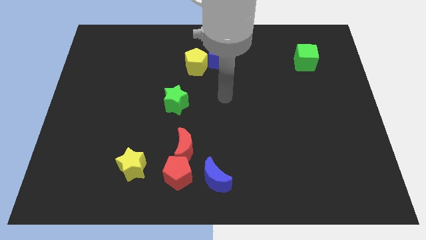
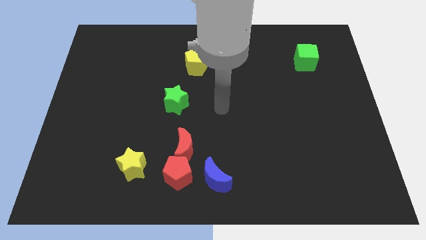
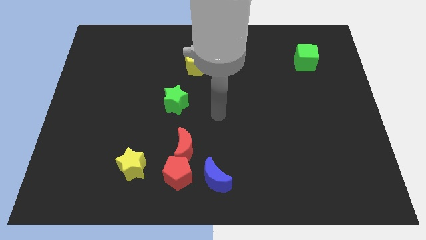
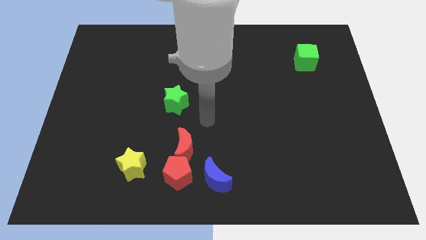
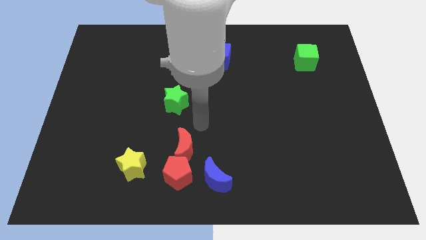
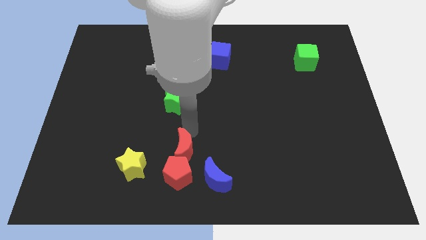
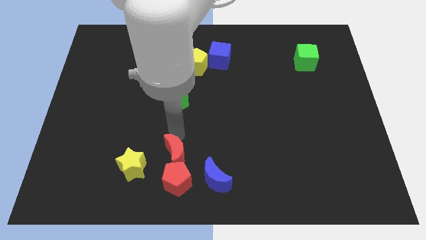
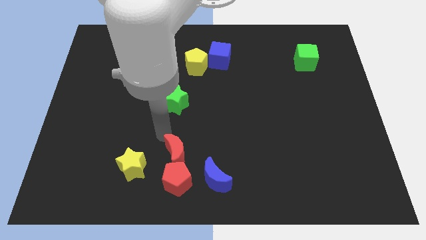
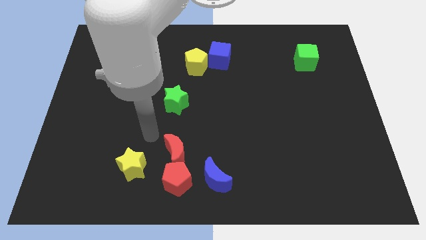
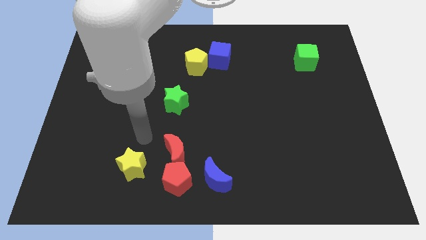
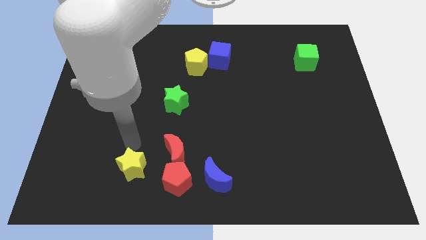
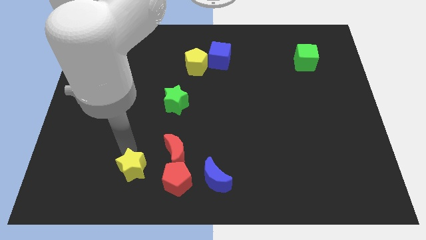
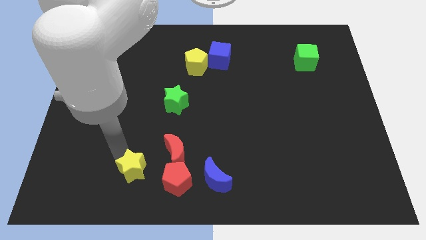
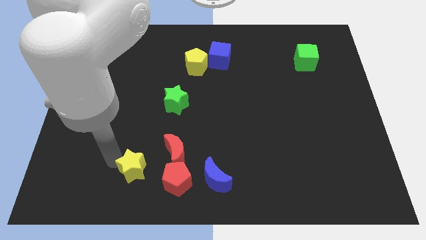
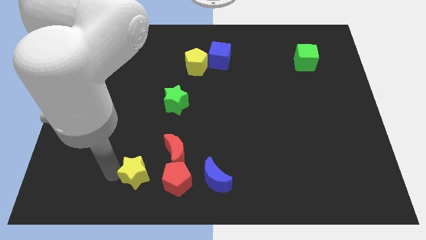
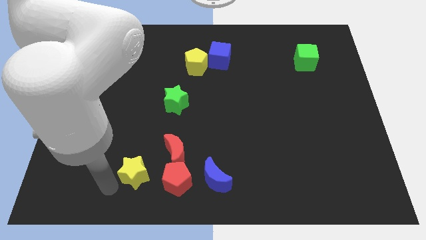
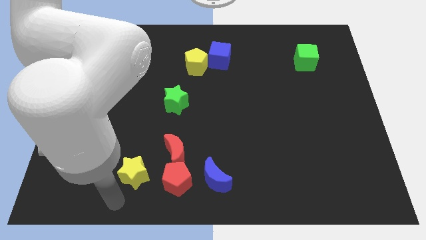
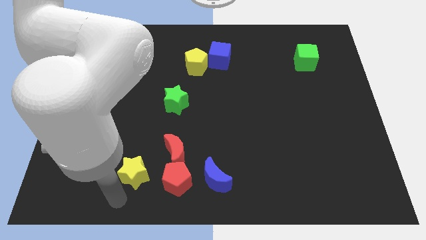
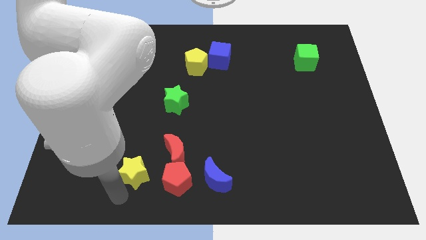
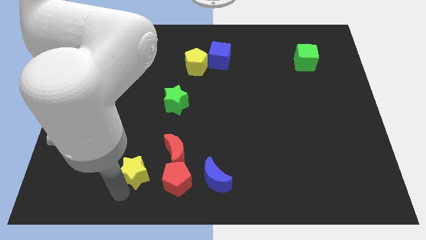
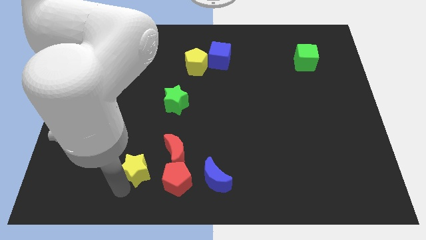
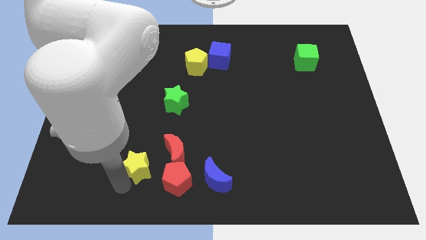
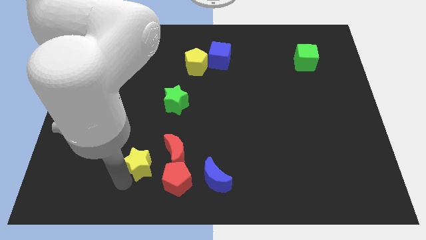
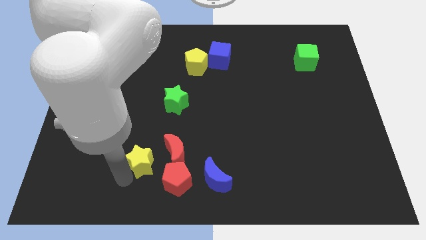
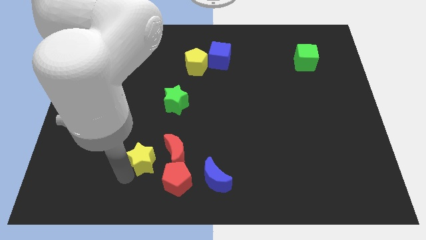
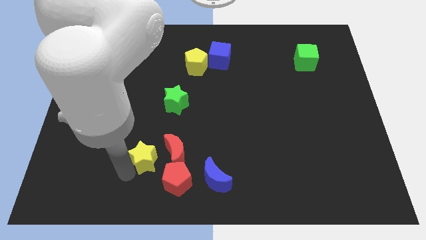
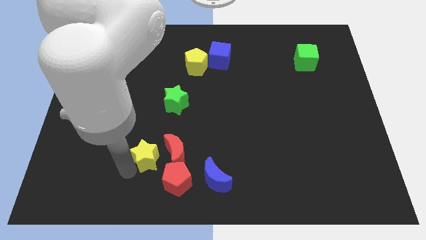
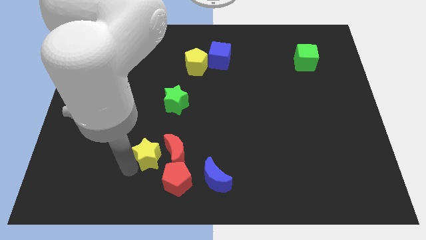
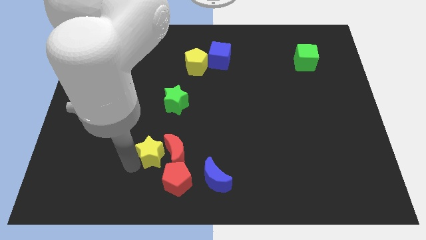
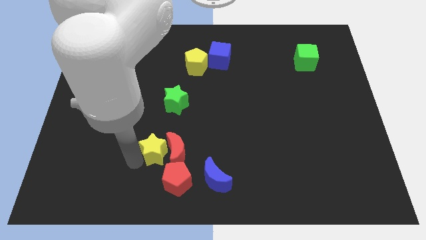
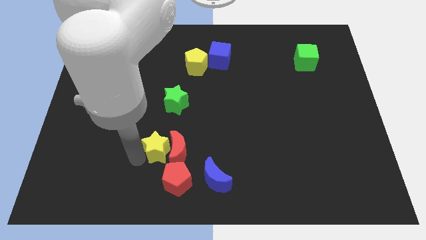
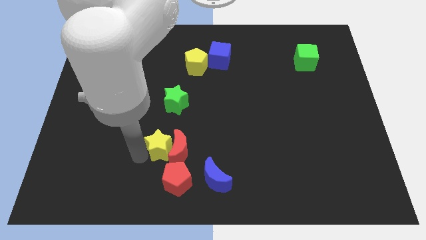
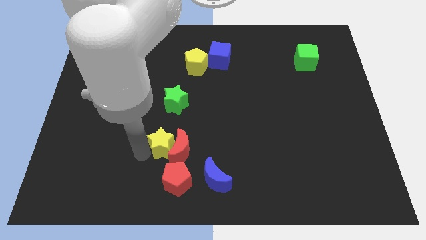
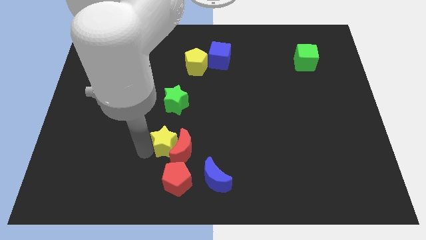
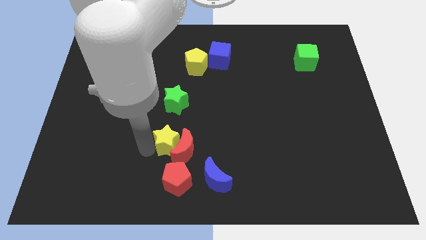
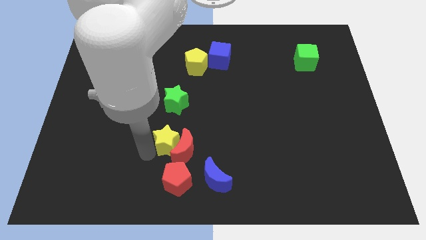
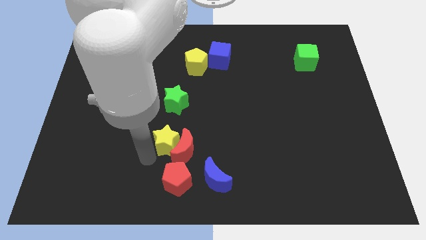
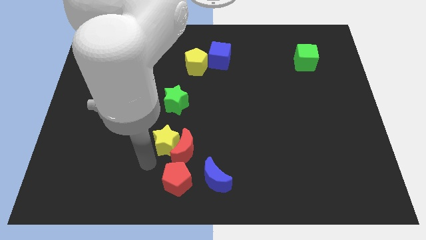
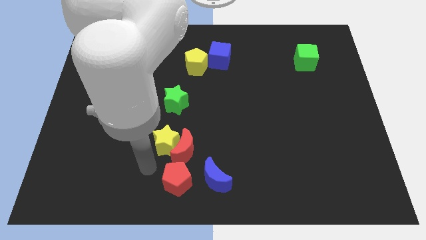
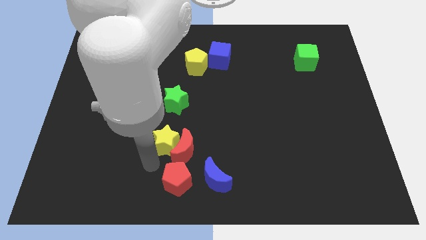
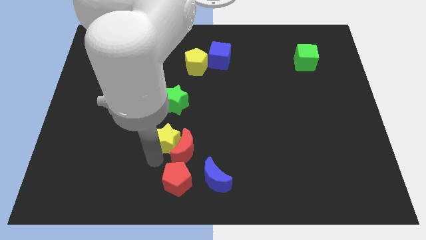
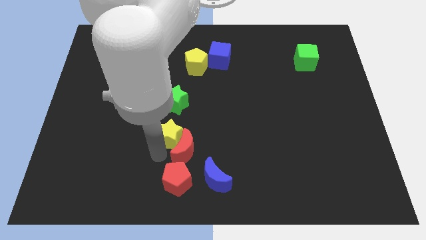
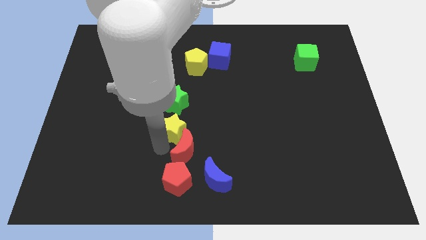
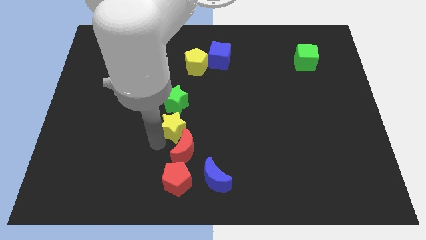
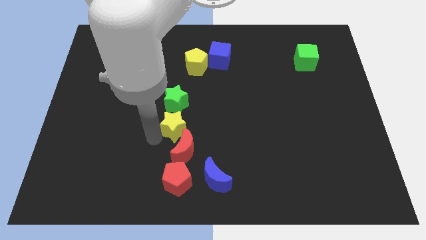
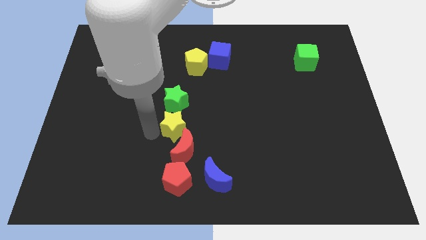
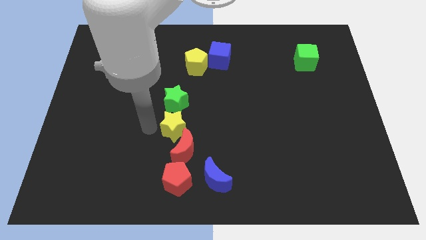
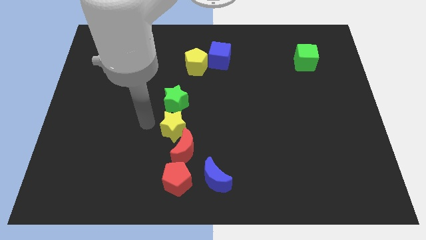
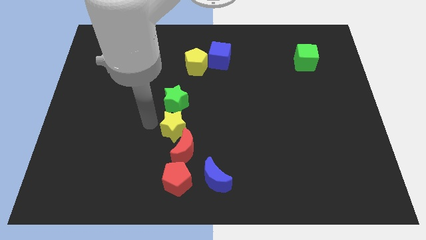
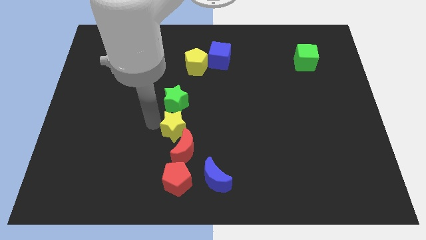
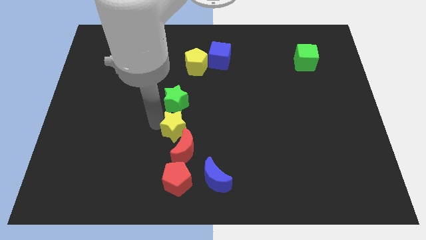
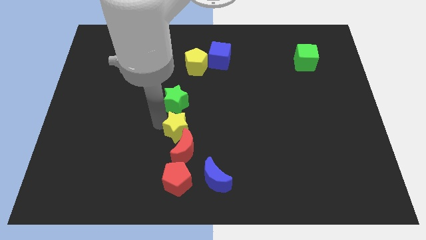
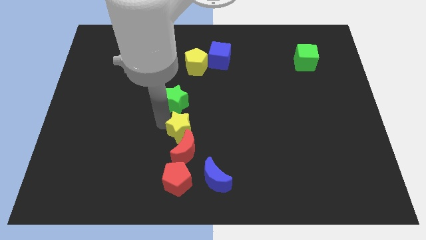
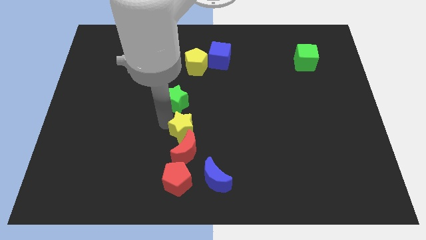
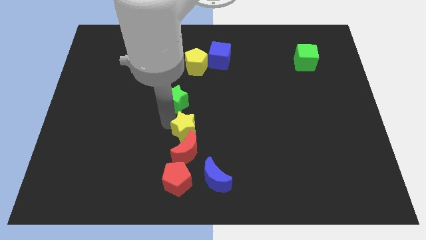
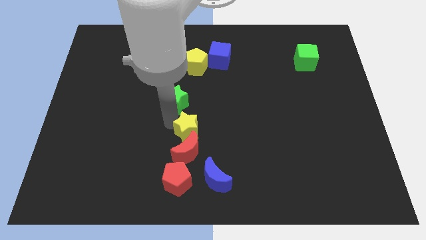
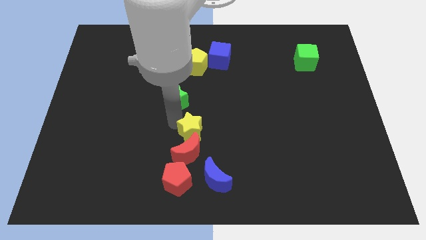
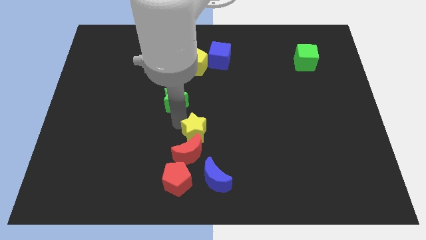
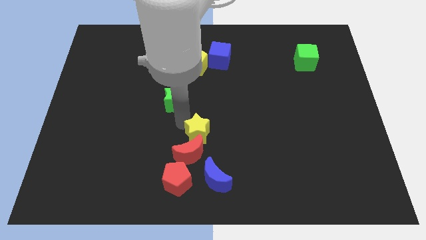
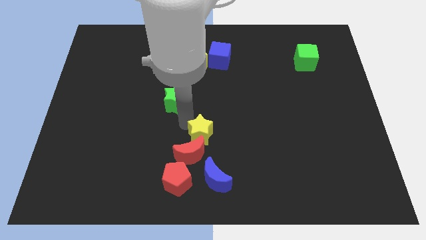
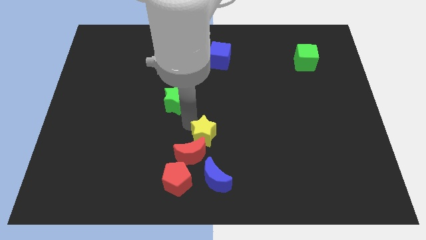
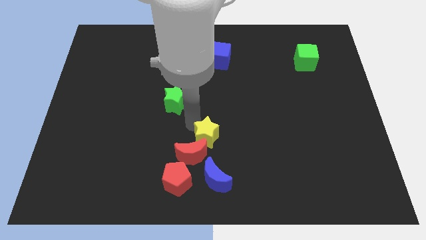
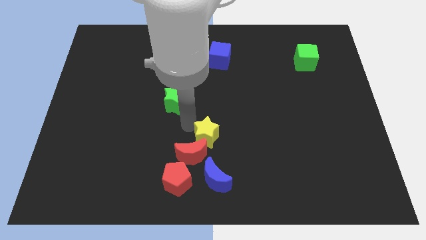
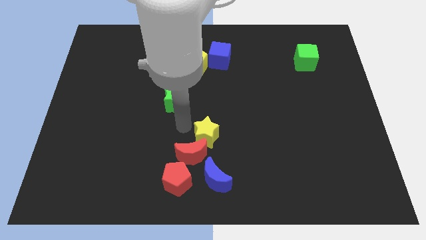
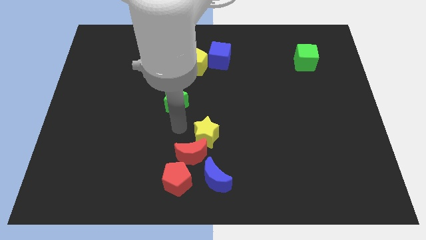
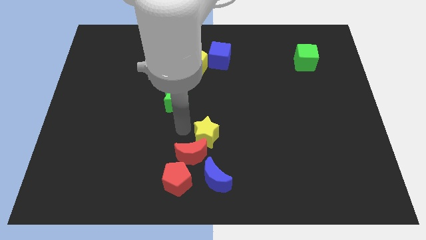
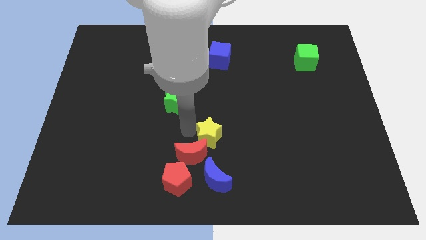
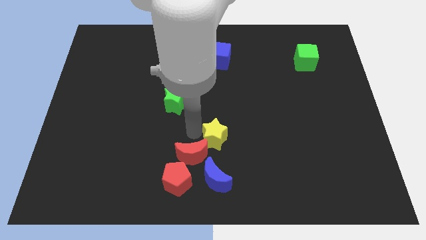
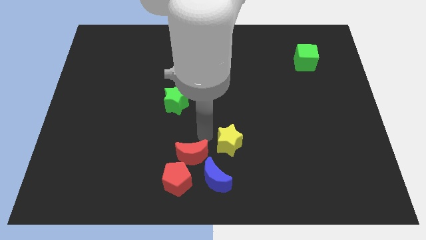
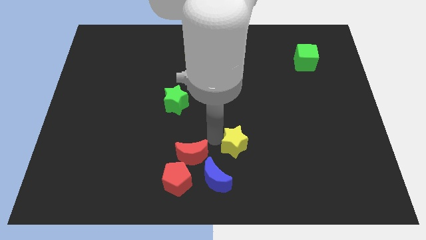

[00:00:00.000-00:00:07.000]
move the yellow star right

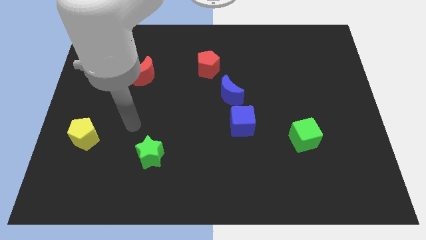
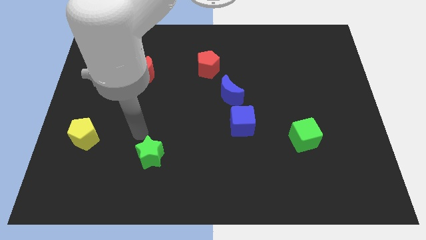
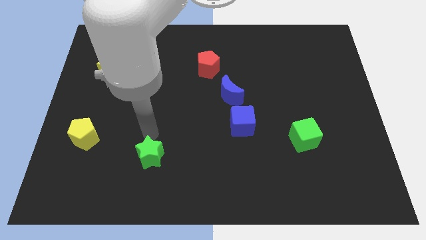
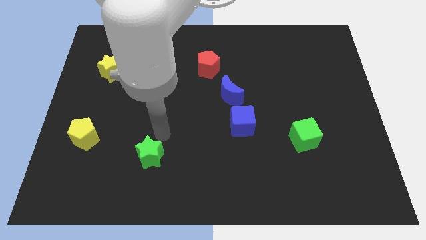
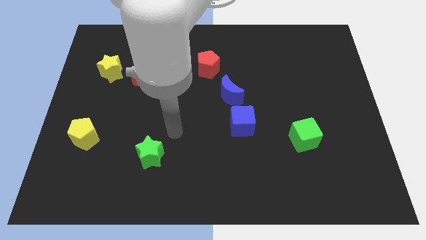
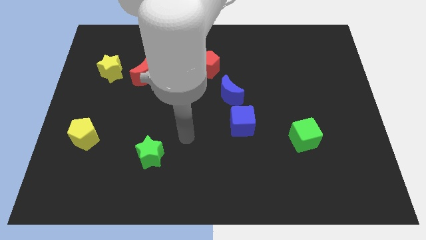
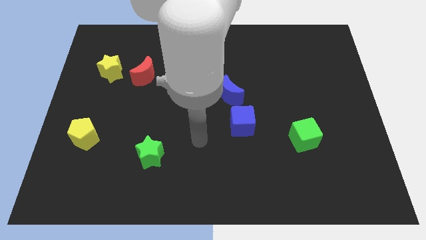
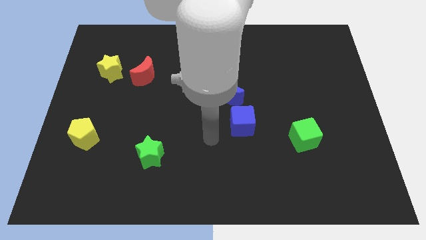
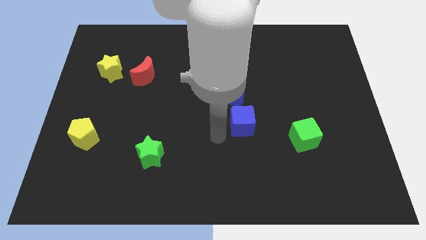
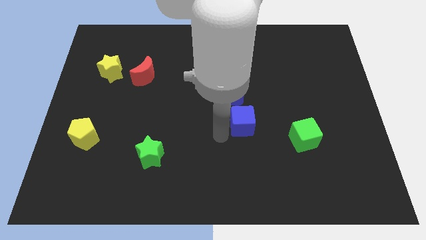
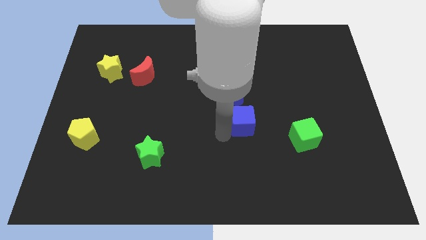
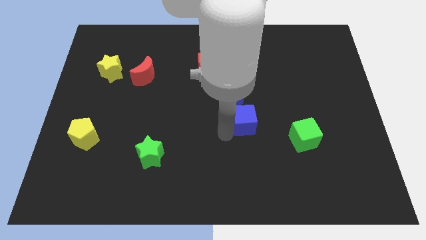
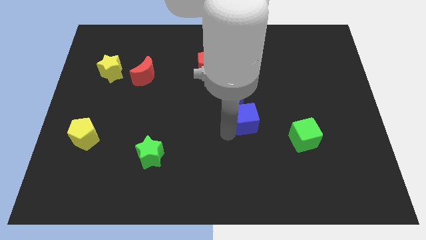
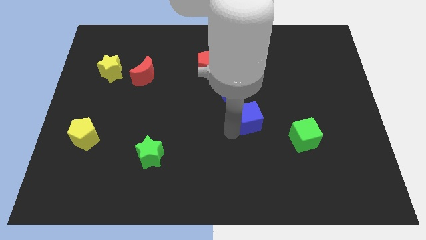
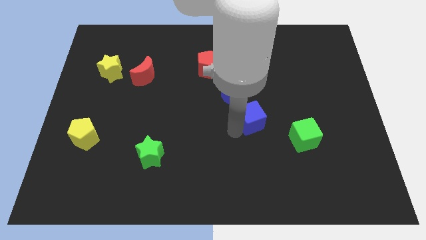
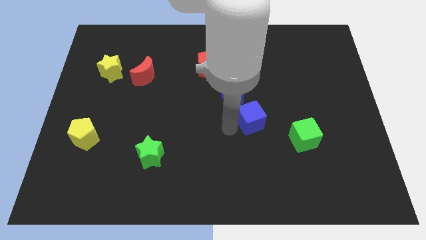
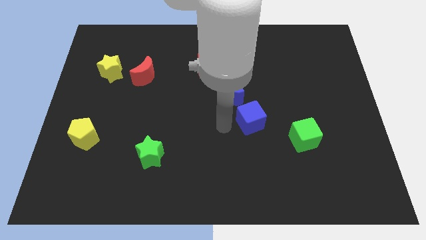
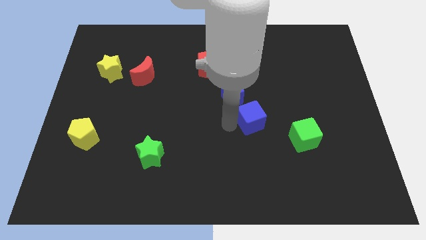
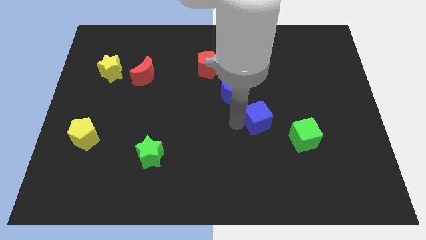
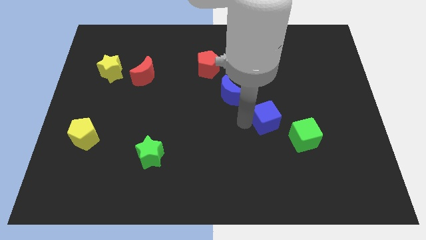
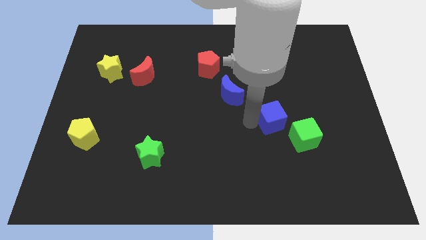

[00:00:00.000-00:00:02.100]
move the blue cube right somewhat
